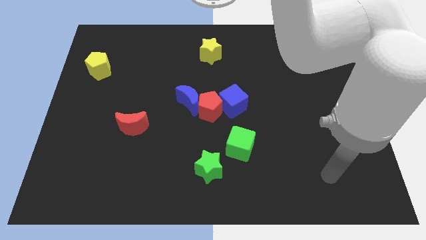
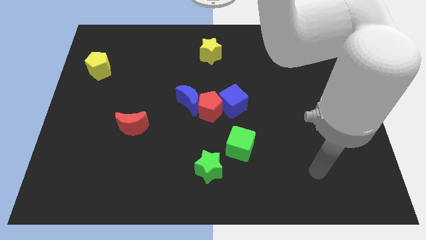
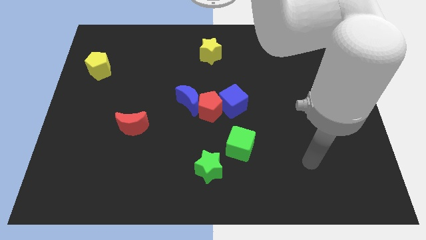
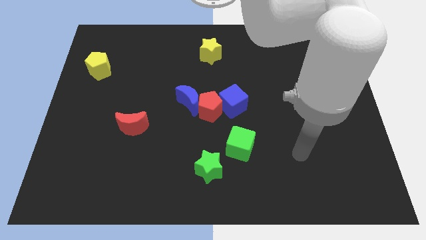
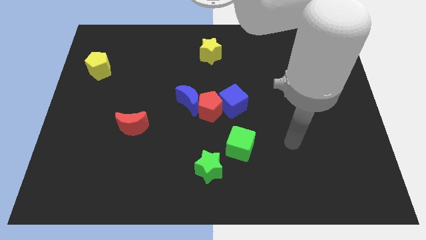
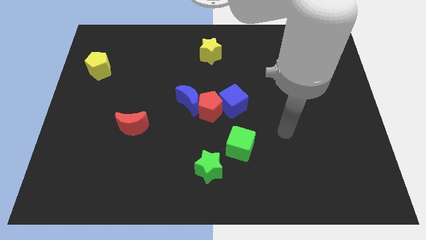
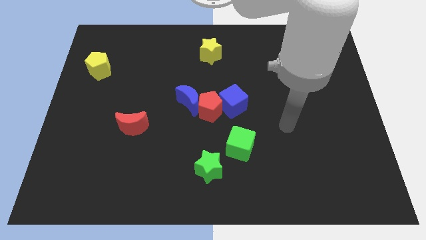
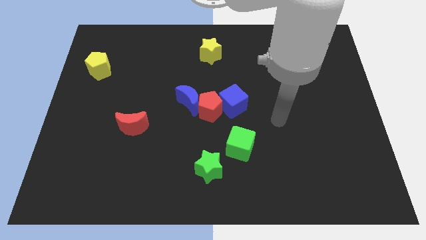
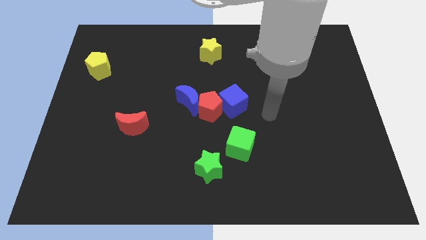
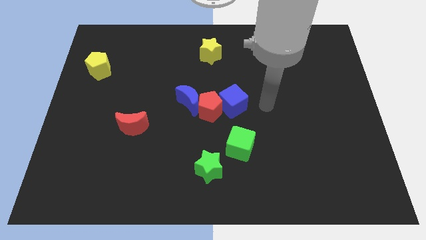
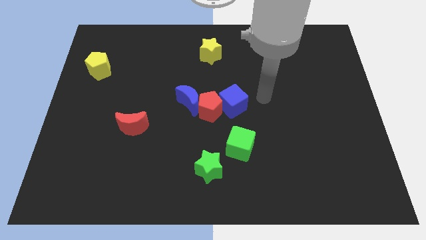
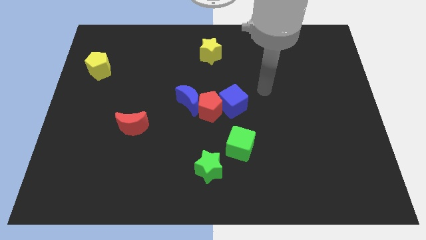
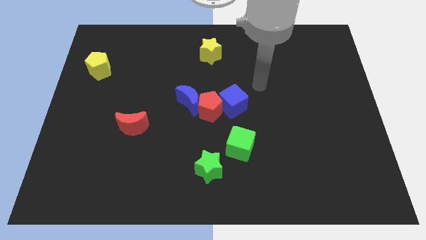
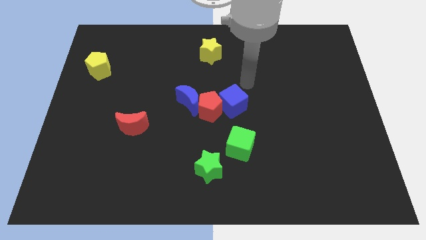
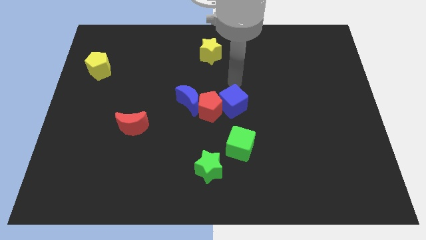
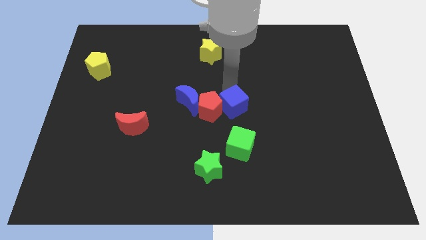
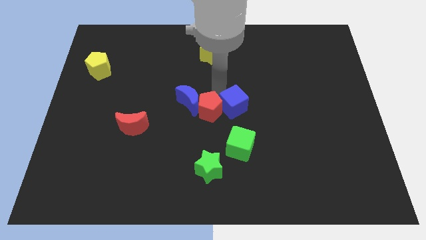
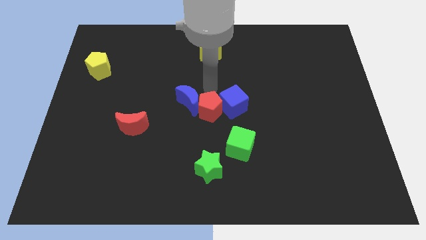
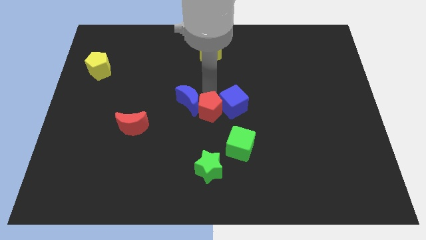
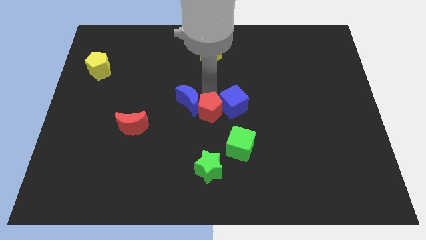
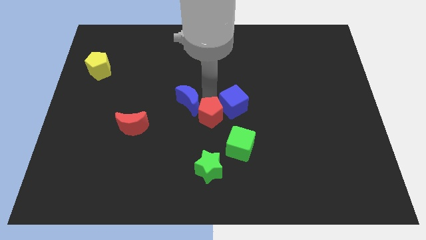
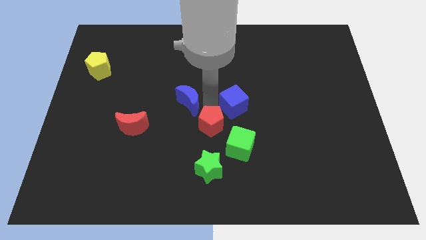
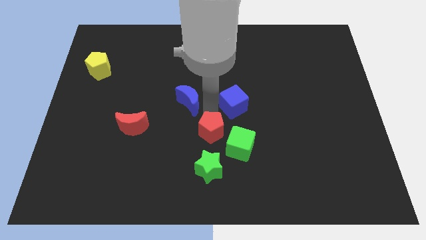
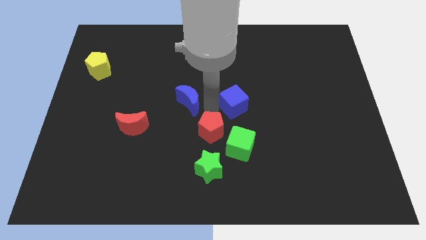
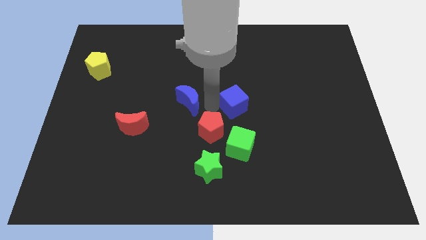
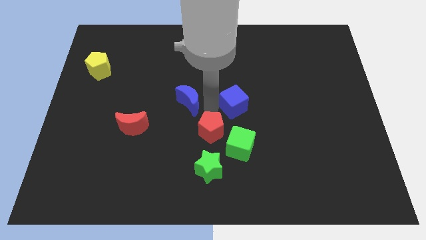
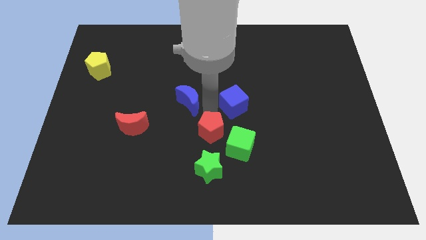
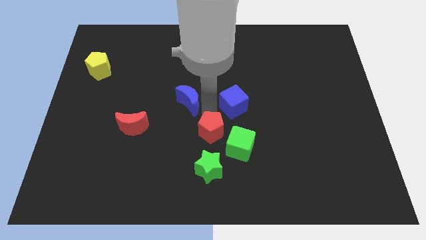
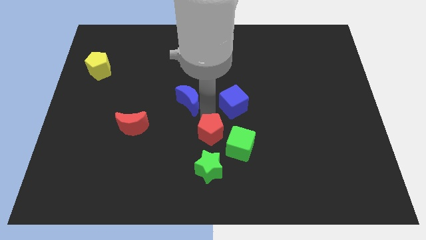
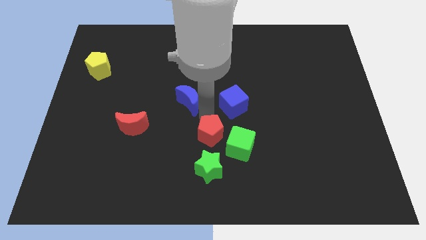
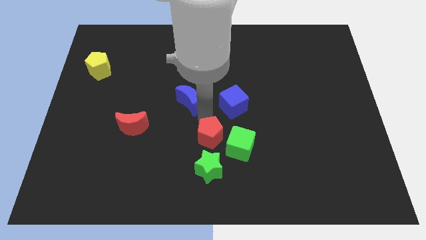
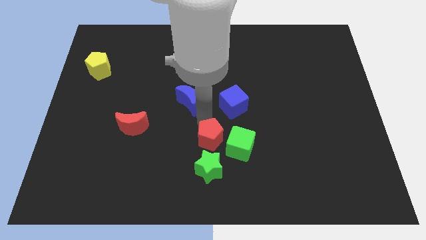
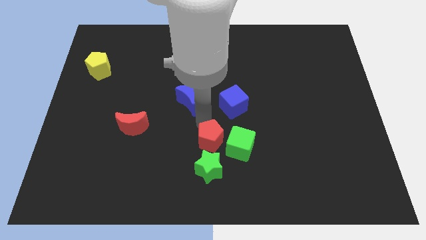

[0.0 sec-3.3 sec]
pull the red pentagon apart from the blue moon and blue cube

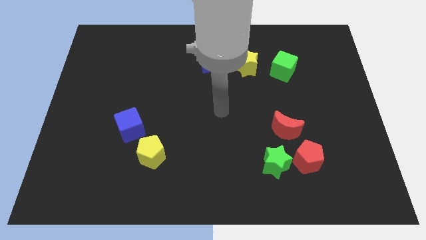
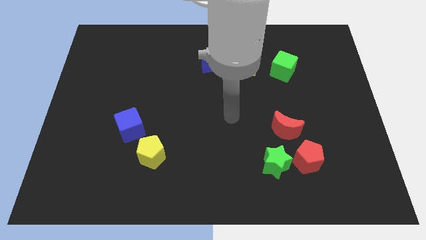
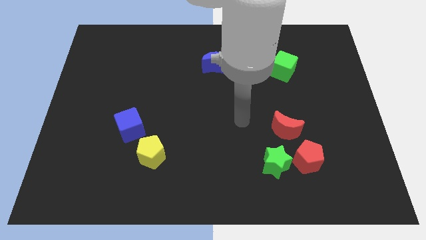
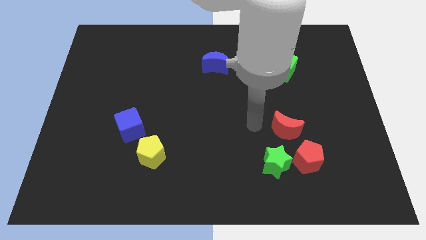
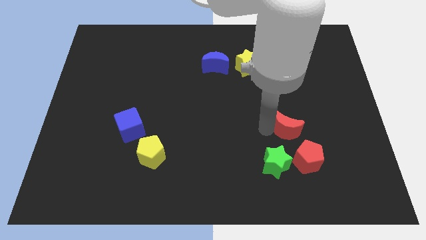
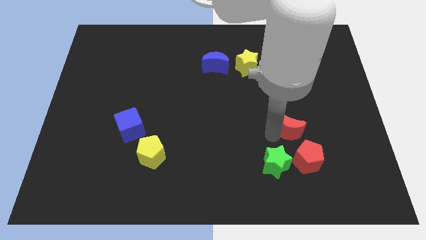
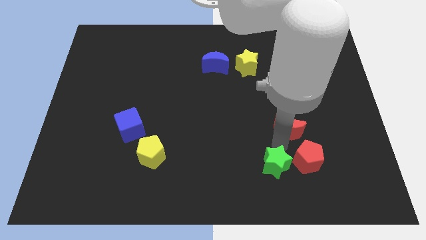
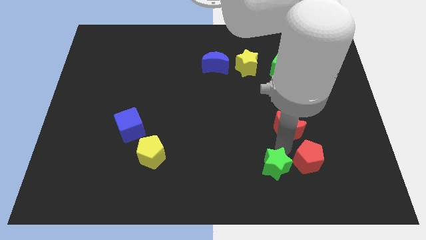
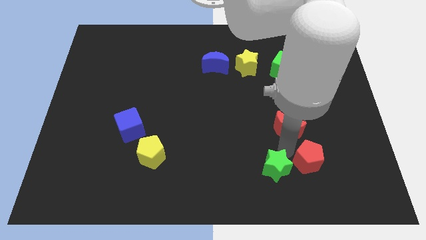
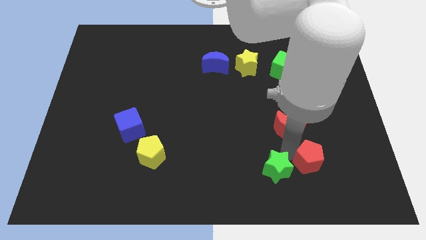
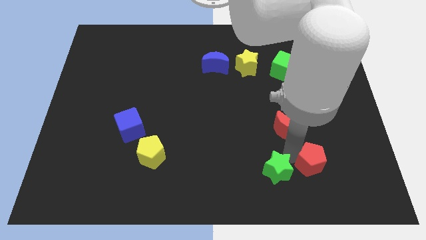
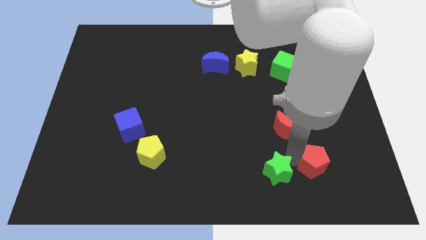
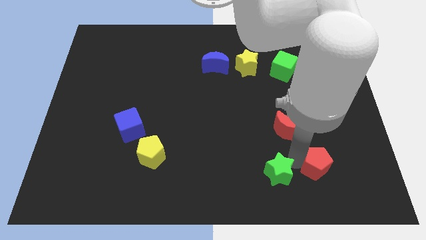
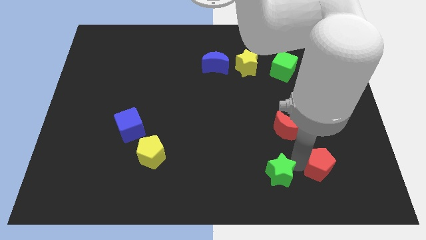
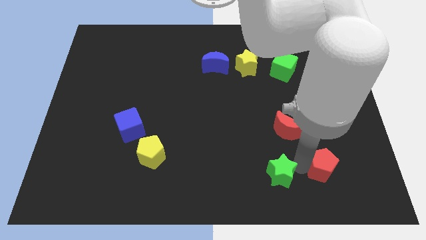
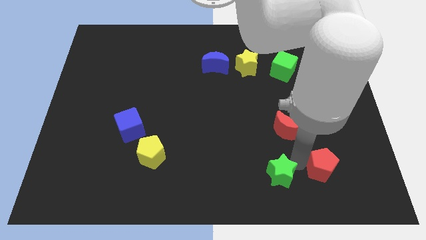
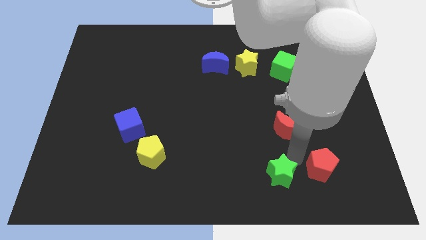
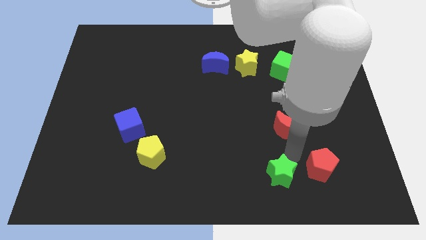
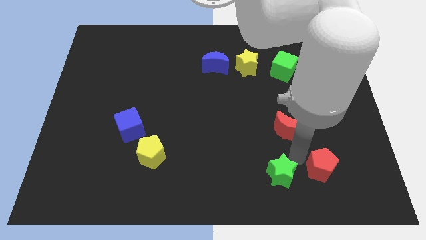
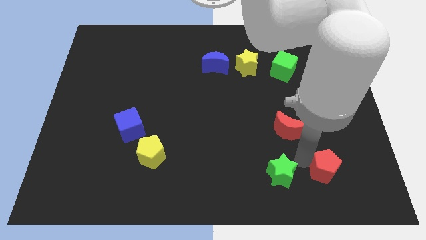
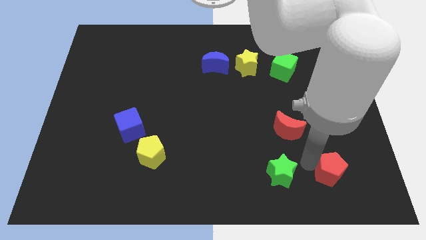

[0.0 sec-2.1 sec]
separate the red pentagon from the green star and red moon

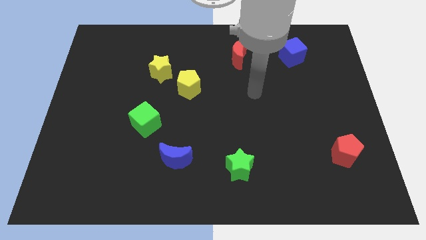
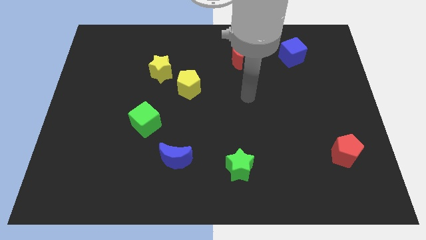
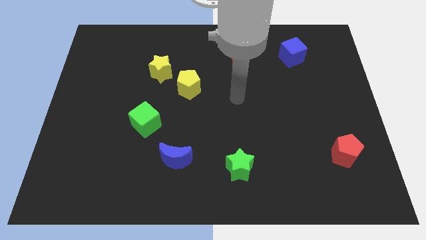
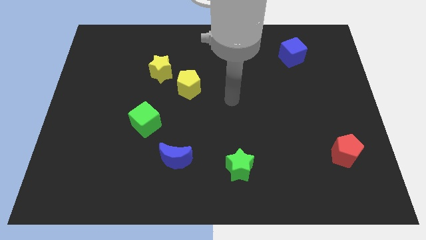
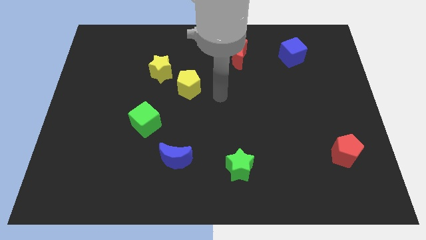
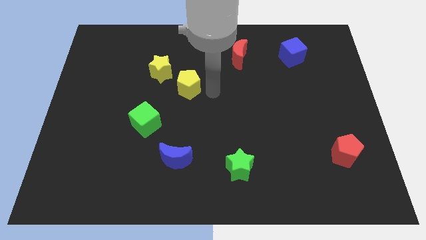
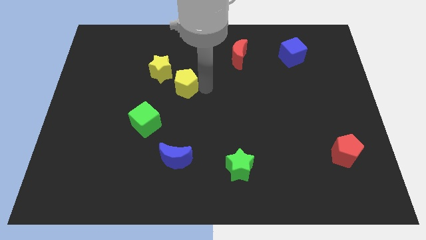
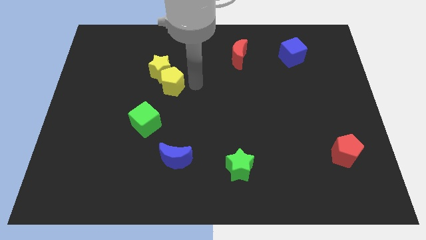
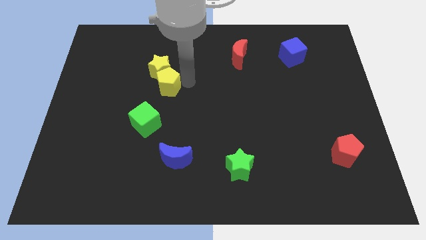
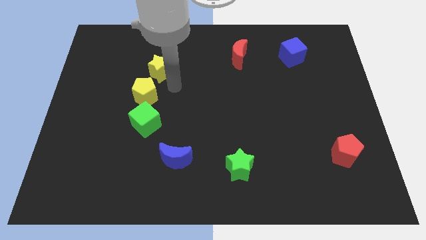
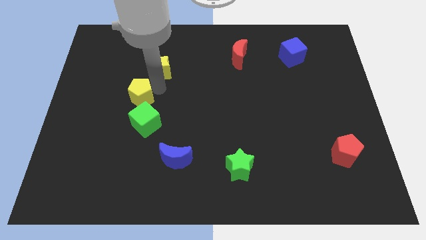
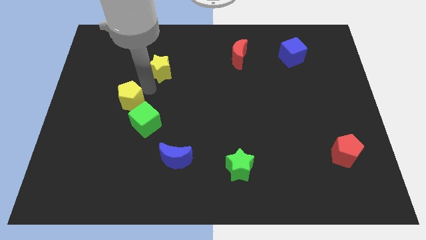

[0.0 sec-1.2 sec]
move the yellow star away from the yellow pentagon

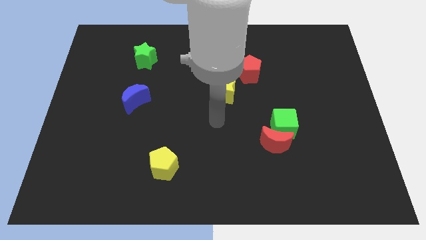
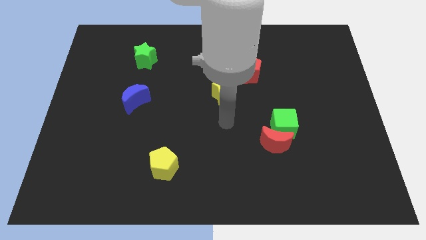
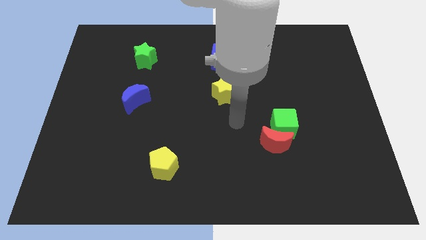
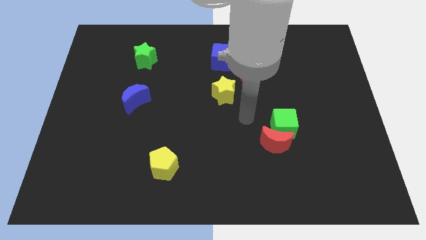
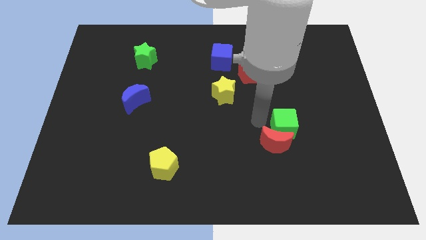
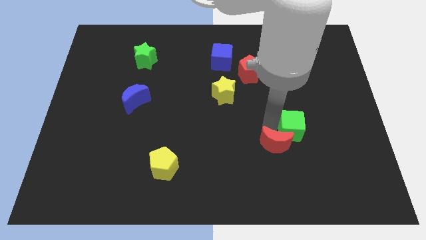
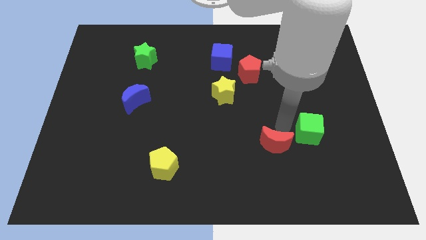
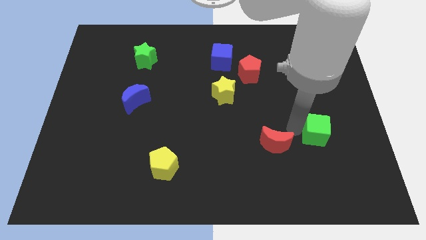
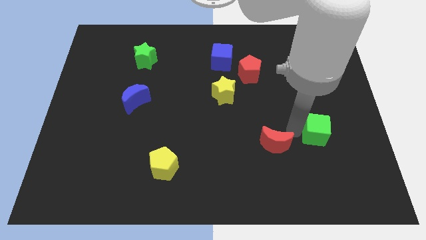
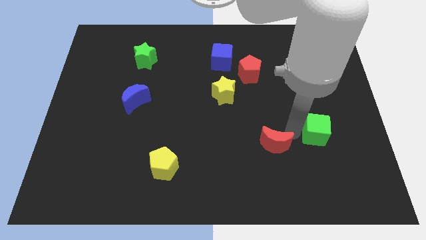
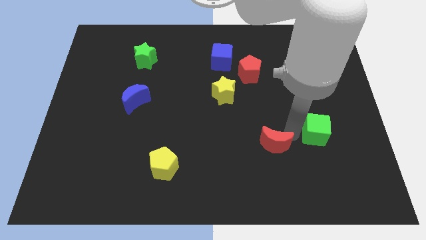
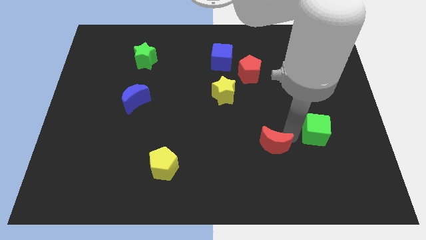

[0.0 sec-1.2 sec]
pull the red moon apart from the green cube

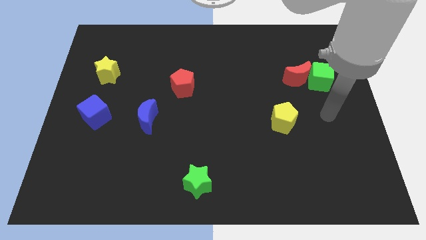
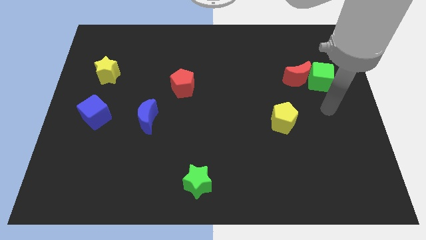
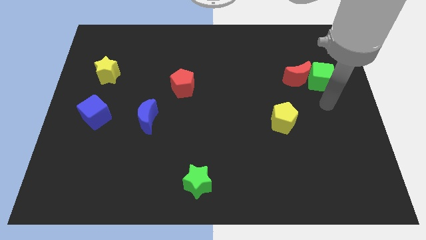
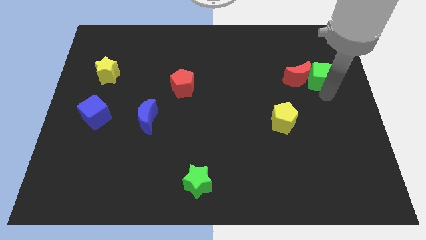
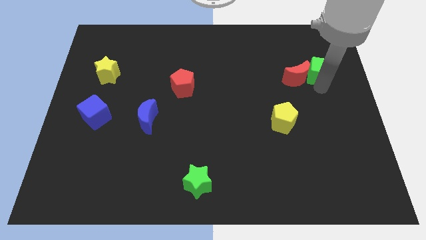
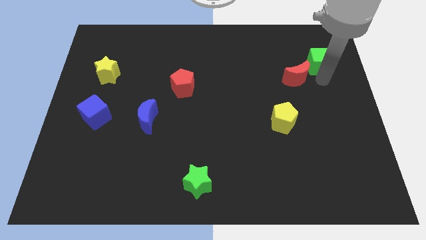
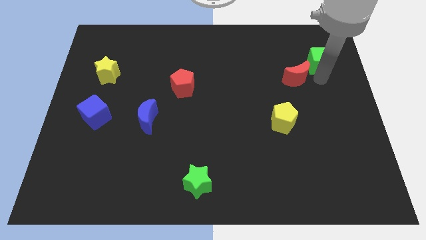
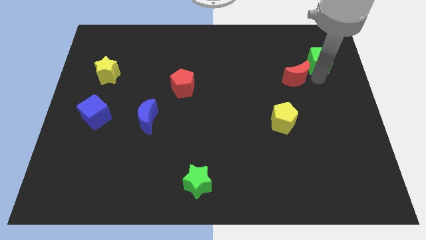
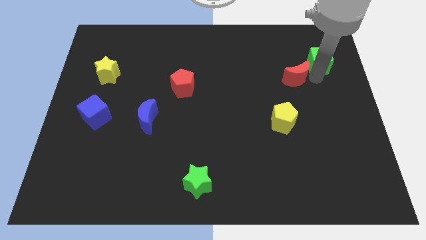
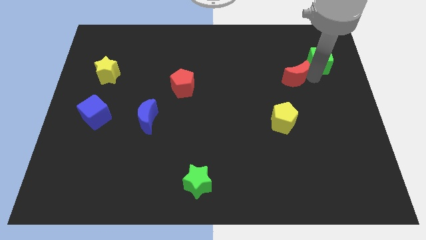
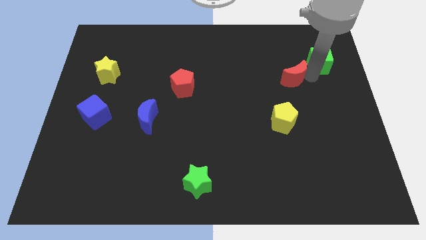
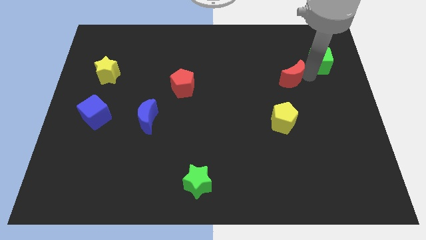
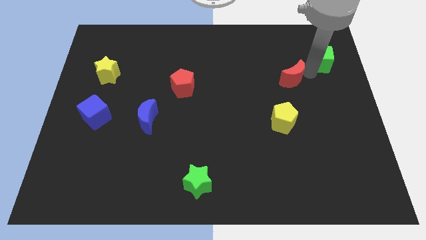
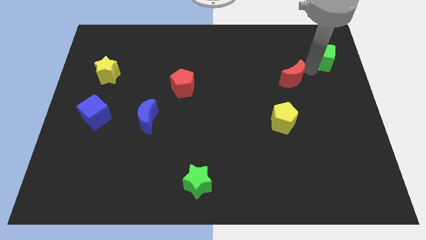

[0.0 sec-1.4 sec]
separate the red moon from the green cube

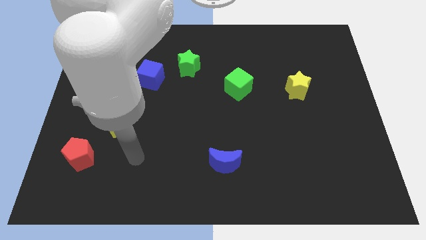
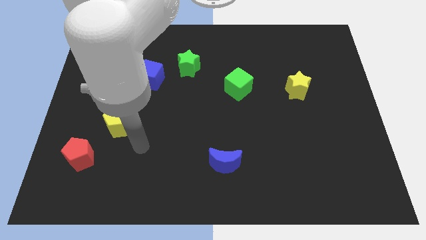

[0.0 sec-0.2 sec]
move the blue cube away from the green star
